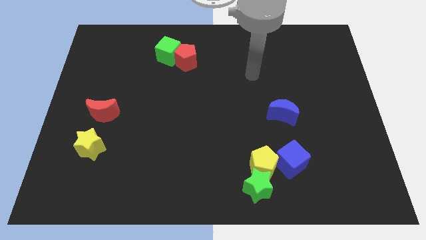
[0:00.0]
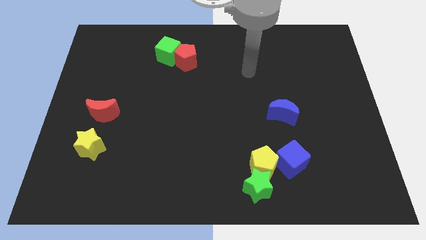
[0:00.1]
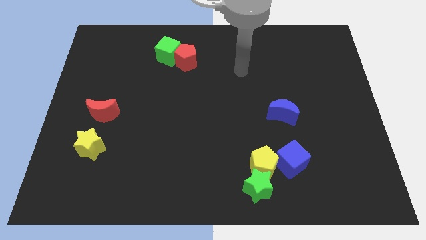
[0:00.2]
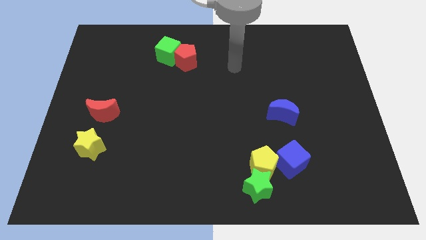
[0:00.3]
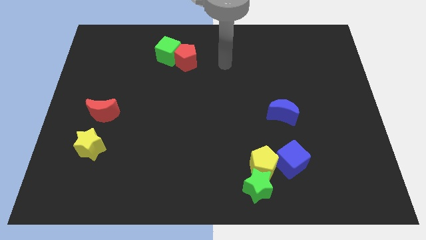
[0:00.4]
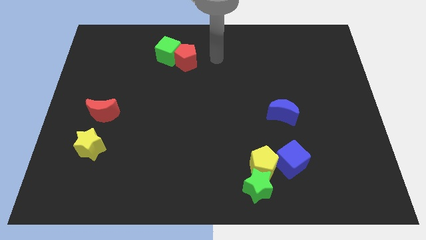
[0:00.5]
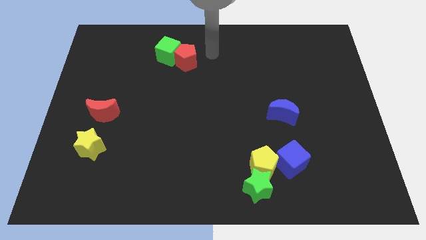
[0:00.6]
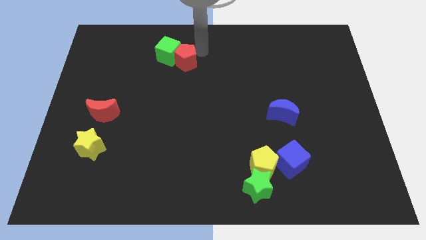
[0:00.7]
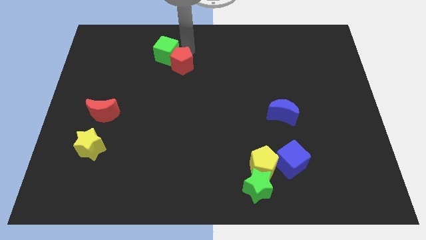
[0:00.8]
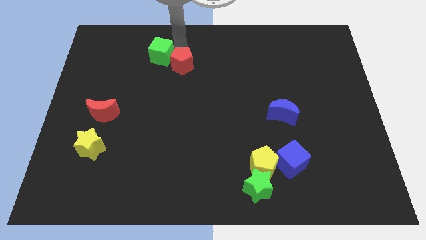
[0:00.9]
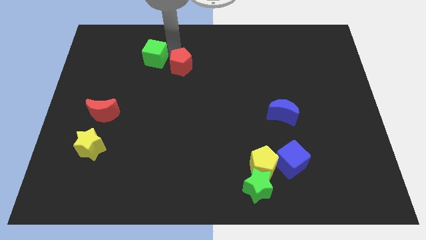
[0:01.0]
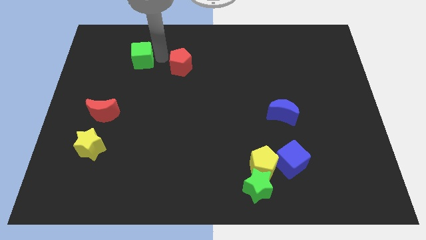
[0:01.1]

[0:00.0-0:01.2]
move the red pentagon away from the green cube

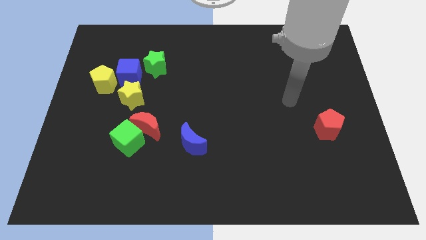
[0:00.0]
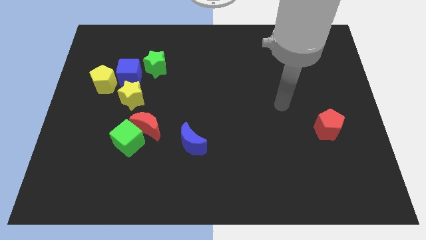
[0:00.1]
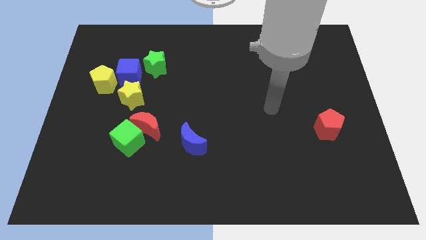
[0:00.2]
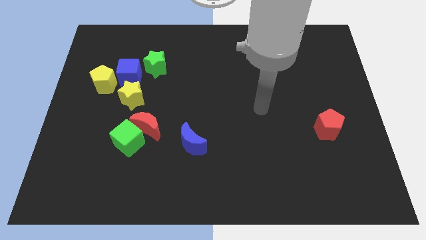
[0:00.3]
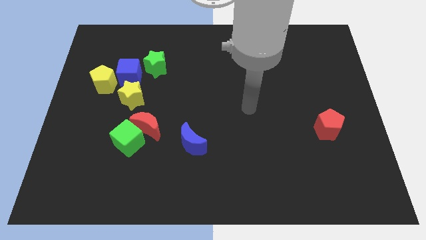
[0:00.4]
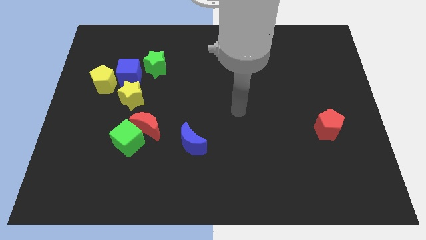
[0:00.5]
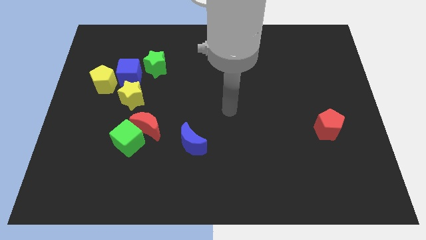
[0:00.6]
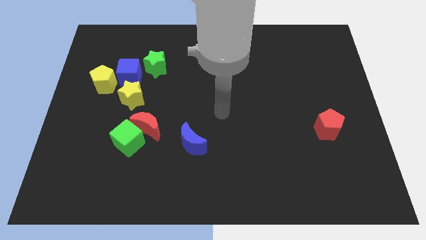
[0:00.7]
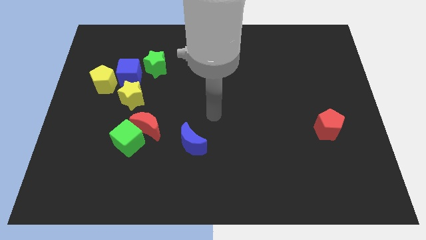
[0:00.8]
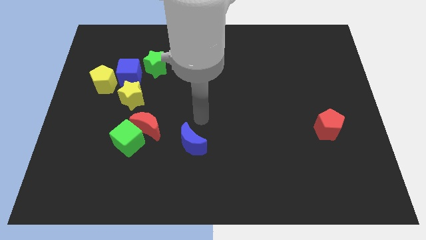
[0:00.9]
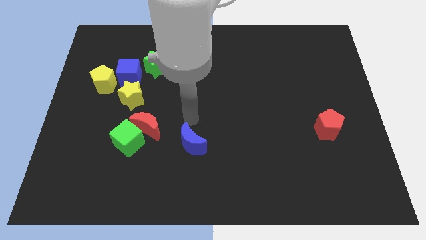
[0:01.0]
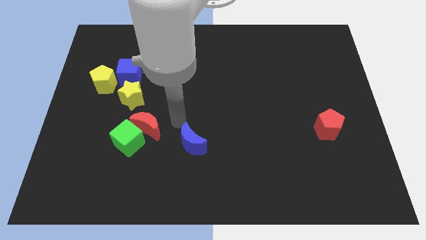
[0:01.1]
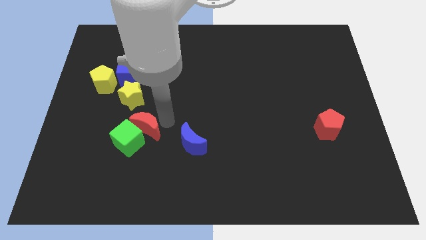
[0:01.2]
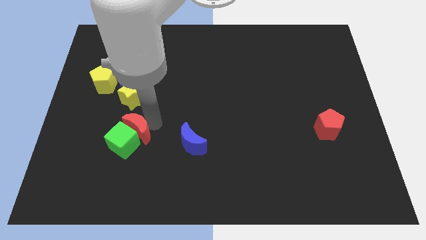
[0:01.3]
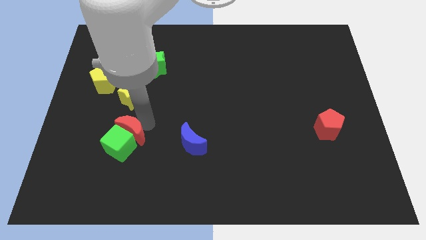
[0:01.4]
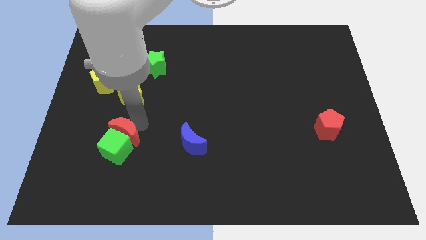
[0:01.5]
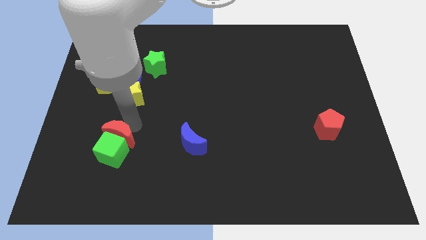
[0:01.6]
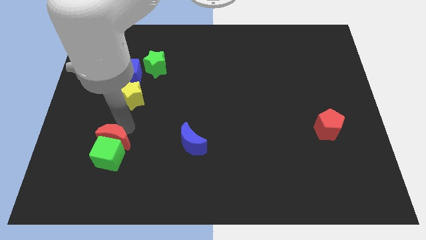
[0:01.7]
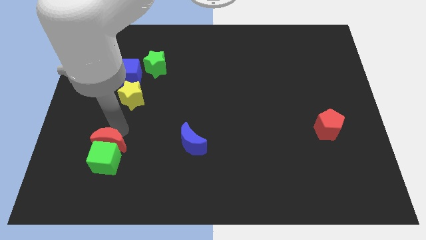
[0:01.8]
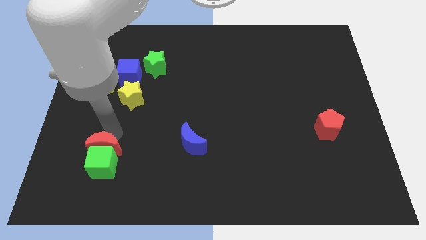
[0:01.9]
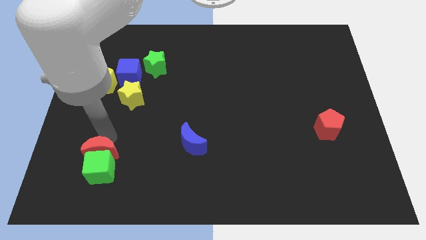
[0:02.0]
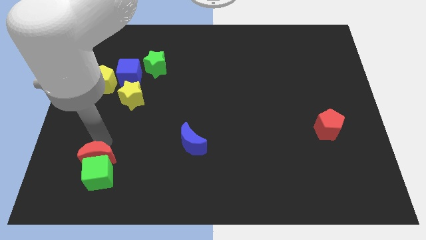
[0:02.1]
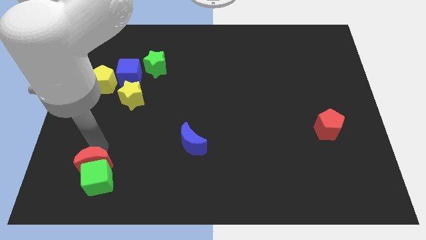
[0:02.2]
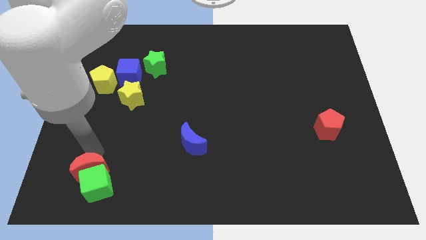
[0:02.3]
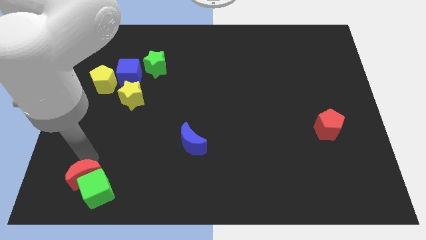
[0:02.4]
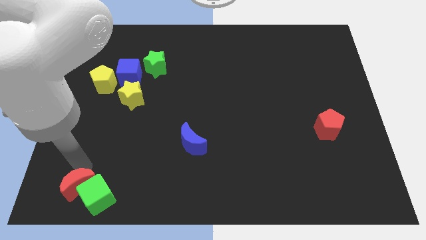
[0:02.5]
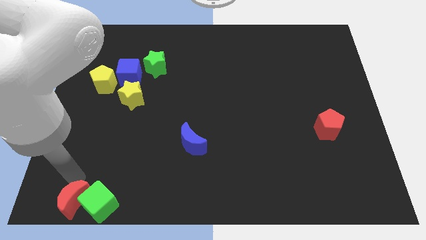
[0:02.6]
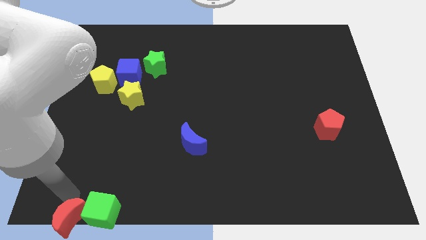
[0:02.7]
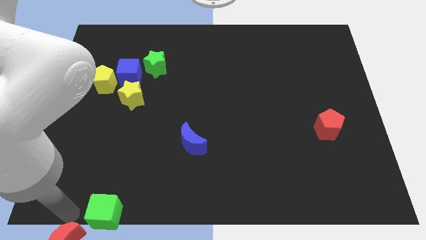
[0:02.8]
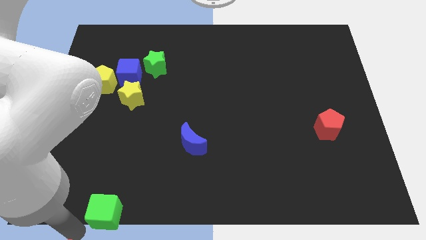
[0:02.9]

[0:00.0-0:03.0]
pull the green cube apart from the red moon

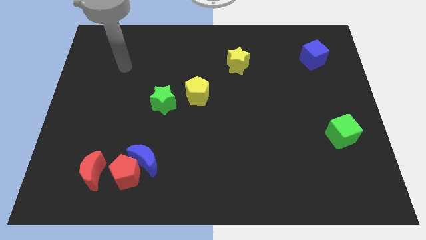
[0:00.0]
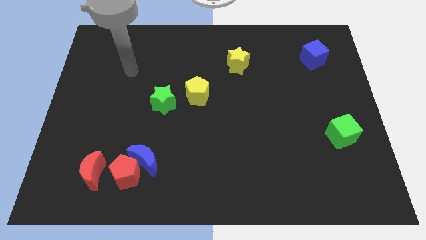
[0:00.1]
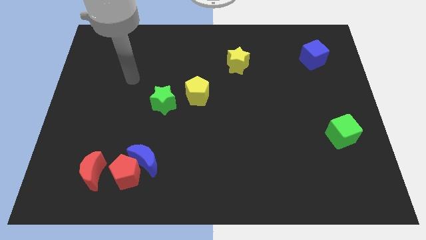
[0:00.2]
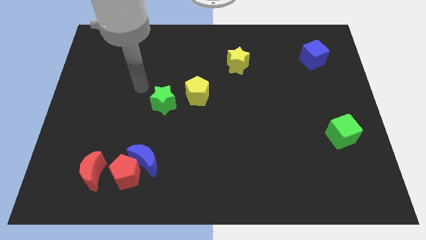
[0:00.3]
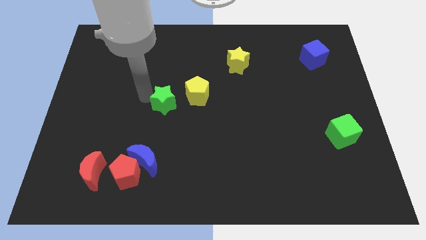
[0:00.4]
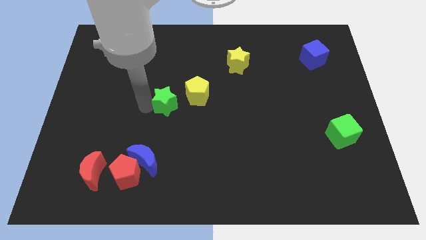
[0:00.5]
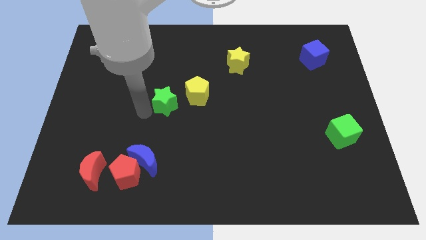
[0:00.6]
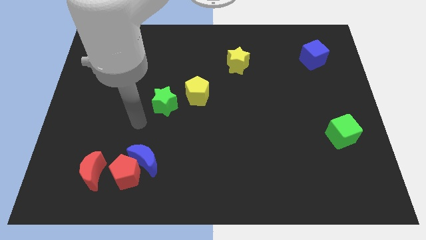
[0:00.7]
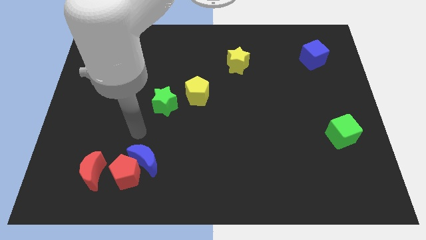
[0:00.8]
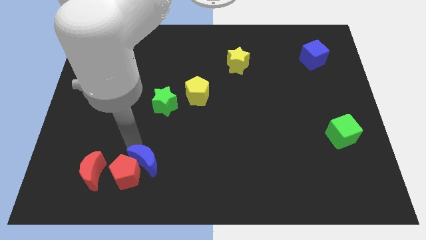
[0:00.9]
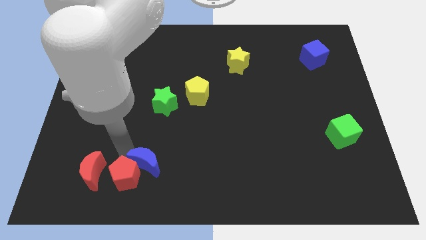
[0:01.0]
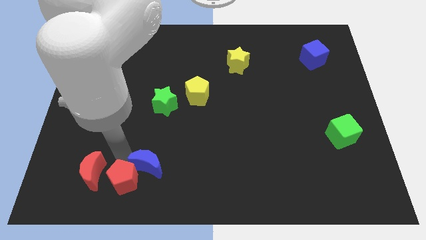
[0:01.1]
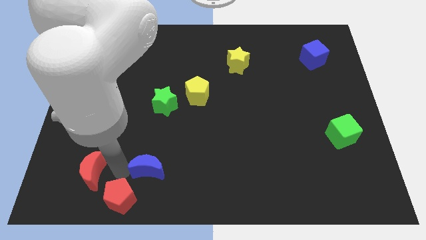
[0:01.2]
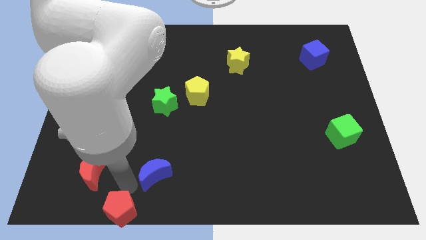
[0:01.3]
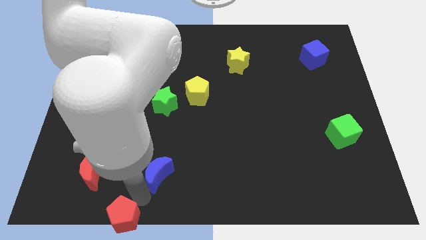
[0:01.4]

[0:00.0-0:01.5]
pull the blue moon apart from the red pentagon

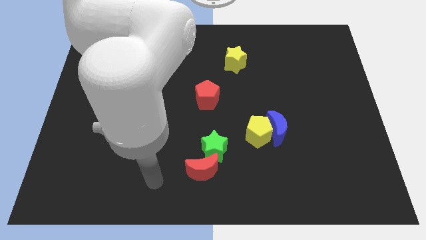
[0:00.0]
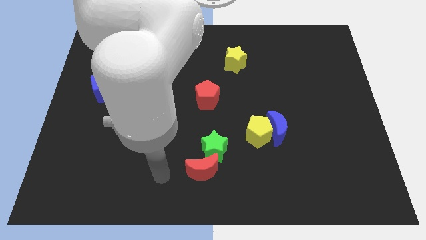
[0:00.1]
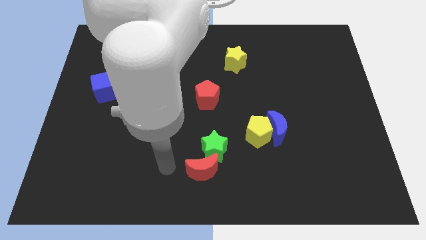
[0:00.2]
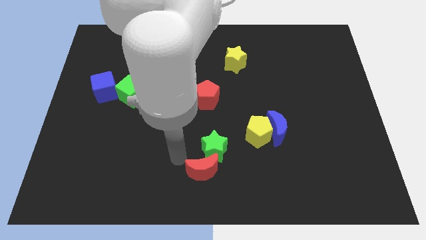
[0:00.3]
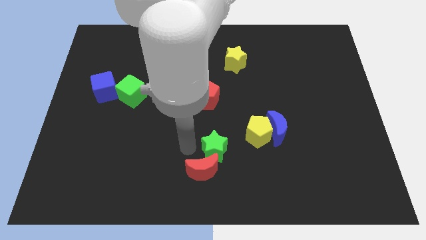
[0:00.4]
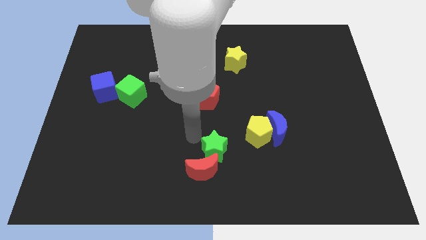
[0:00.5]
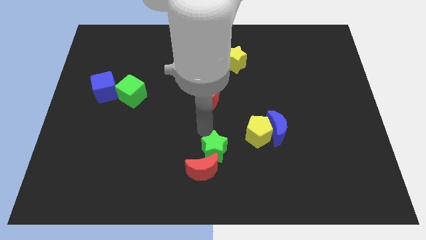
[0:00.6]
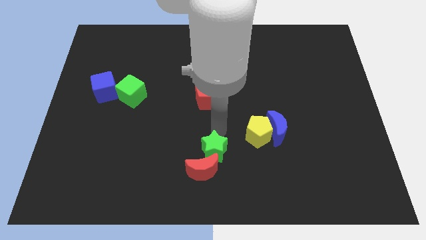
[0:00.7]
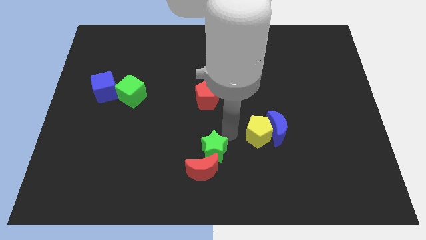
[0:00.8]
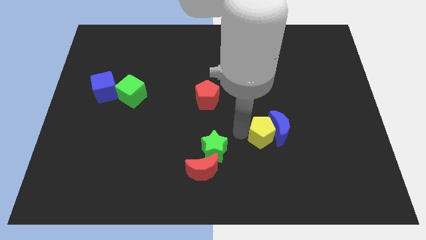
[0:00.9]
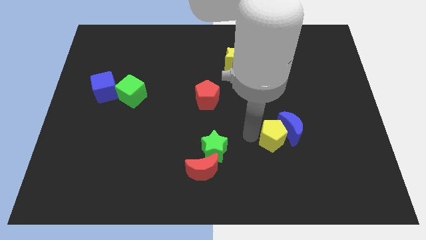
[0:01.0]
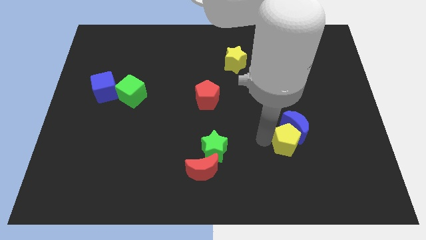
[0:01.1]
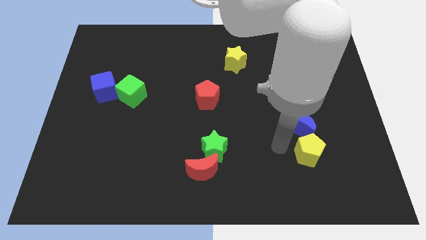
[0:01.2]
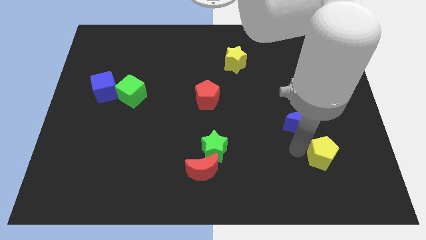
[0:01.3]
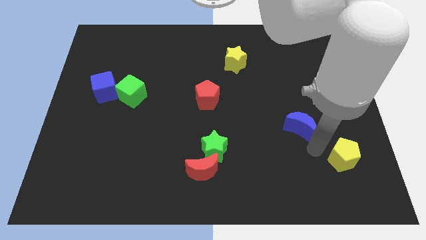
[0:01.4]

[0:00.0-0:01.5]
move the blue moon away from the yellow pentagon

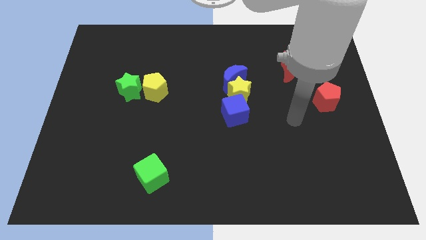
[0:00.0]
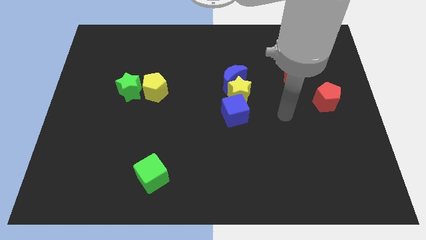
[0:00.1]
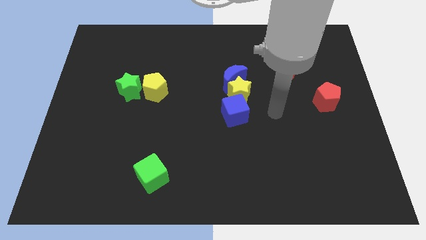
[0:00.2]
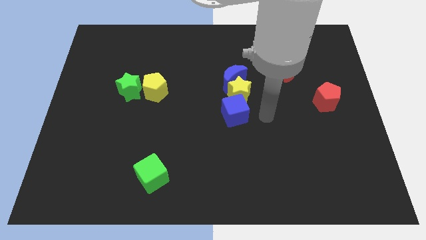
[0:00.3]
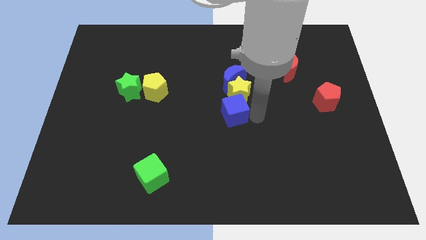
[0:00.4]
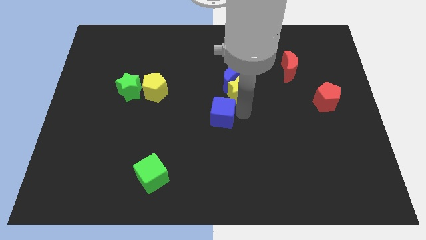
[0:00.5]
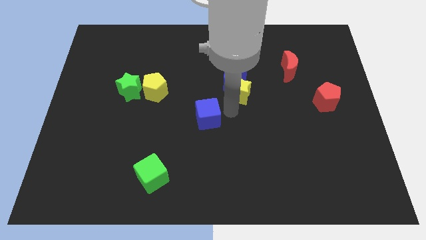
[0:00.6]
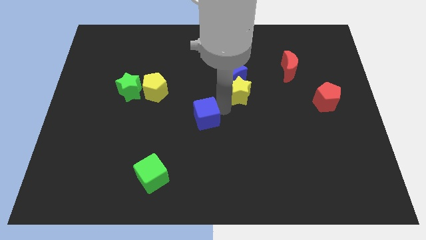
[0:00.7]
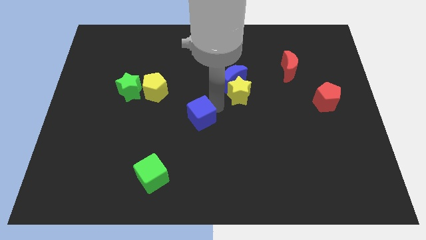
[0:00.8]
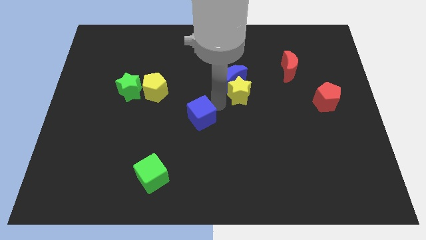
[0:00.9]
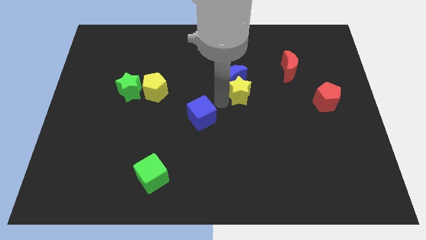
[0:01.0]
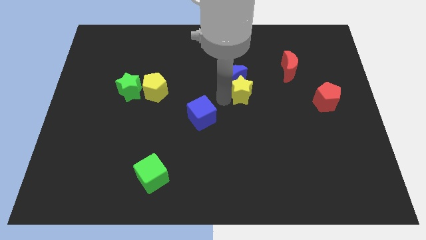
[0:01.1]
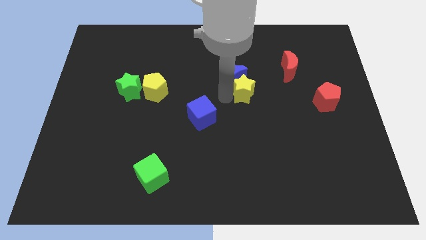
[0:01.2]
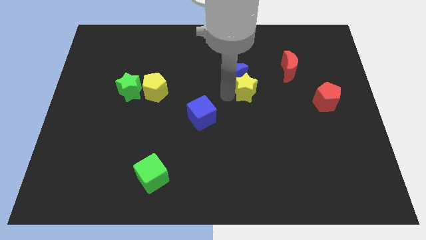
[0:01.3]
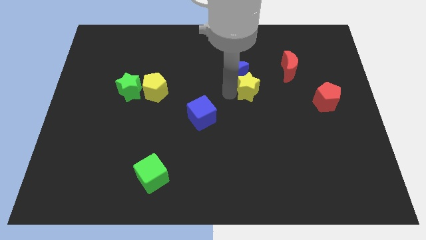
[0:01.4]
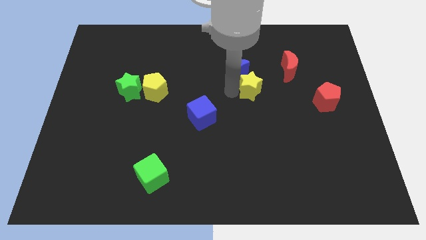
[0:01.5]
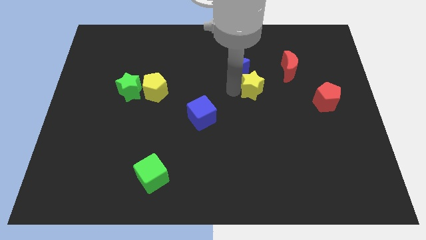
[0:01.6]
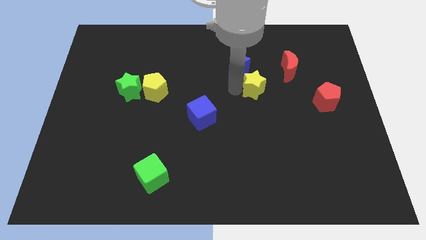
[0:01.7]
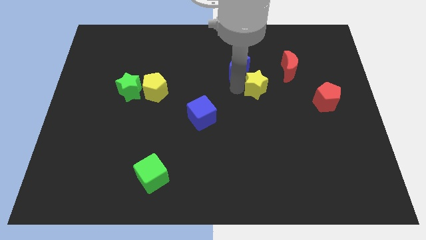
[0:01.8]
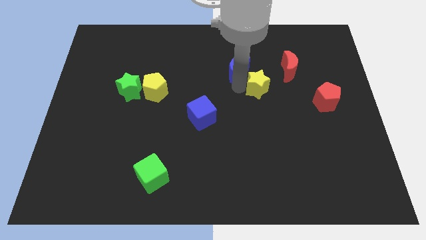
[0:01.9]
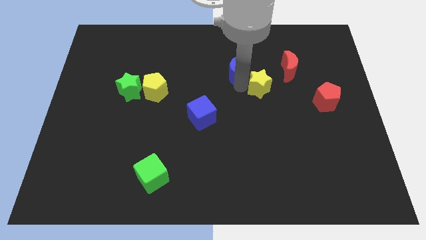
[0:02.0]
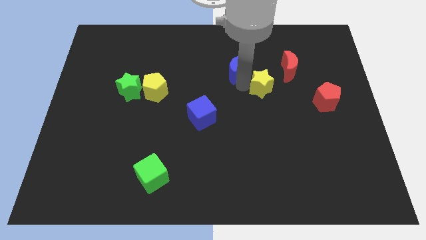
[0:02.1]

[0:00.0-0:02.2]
separate the yellow star from the blue moon and blue cube
